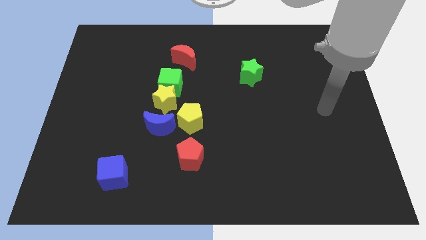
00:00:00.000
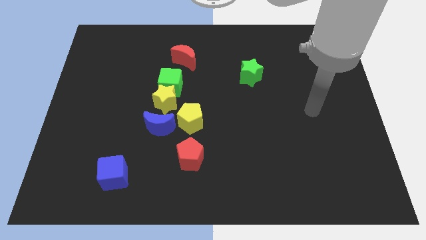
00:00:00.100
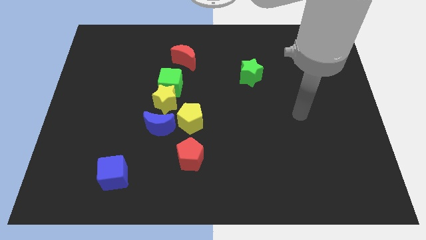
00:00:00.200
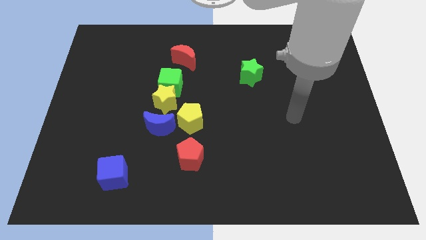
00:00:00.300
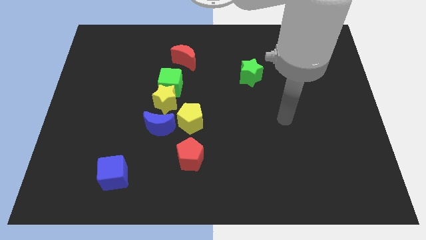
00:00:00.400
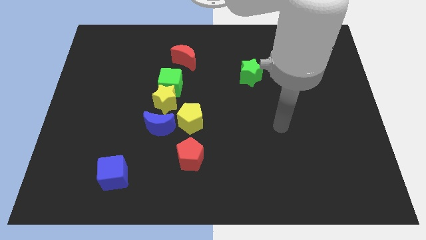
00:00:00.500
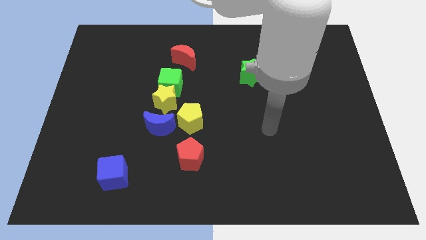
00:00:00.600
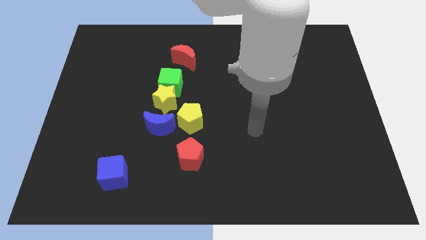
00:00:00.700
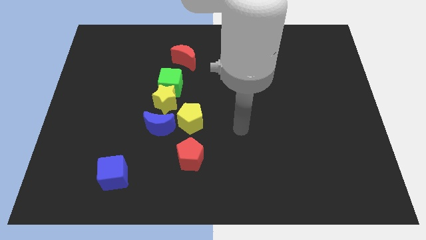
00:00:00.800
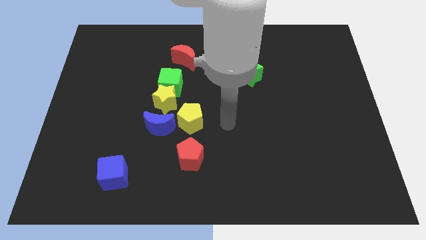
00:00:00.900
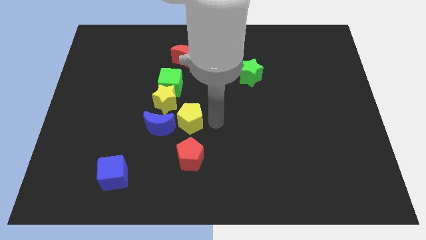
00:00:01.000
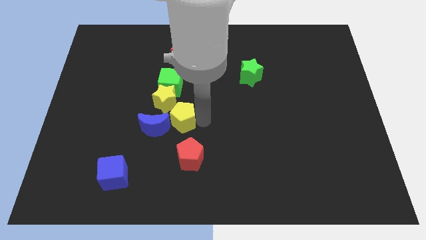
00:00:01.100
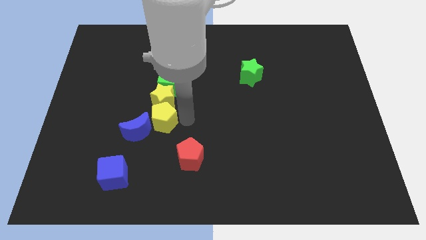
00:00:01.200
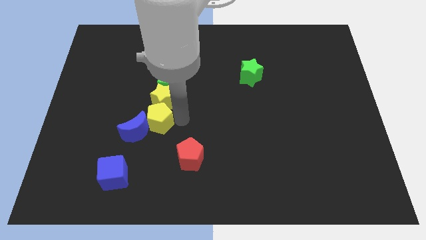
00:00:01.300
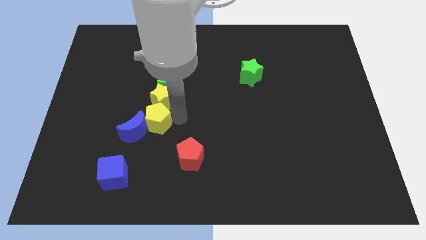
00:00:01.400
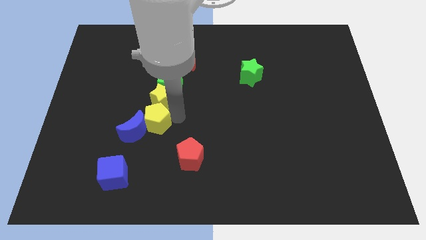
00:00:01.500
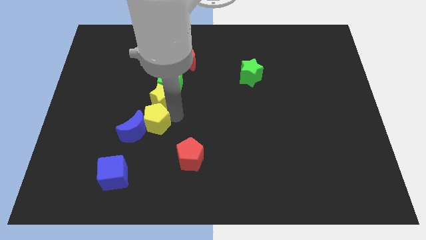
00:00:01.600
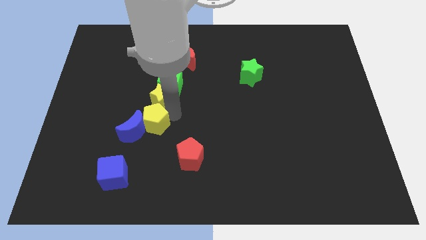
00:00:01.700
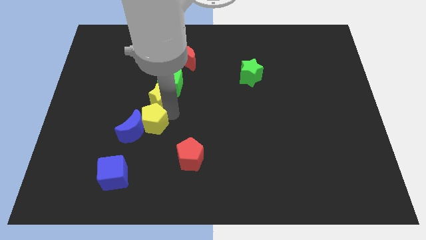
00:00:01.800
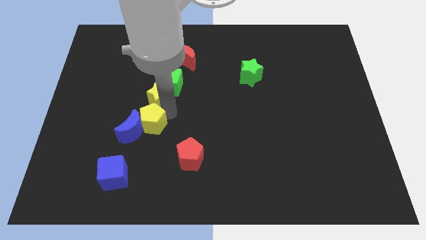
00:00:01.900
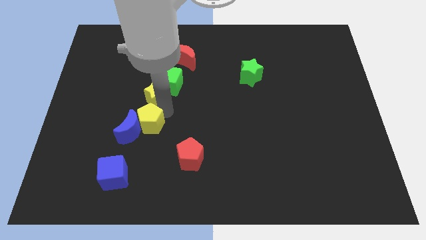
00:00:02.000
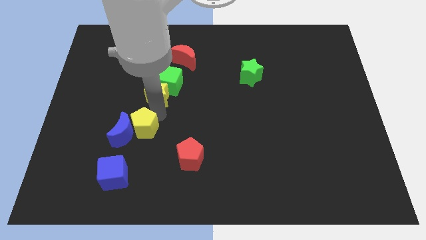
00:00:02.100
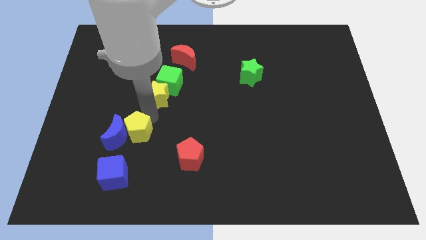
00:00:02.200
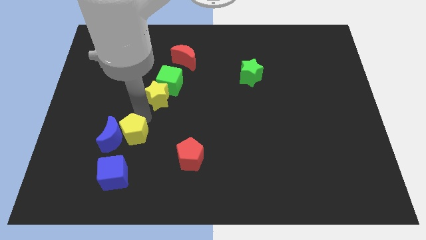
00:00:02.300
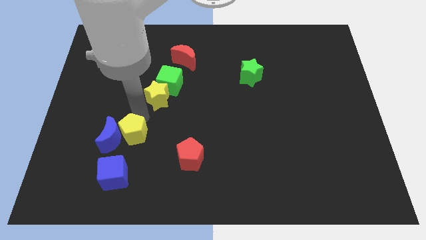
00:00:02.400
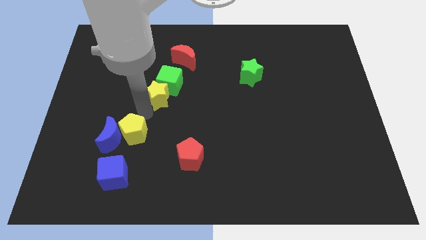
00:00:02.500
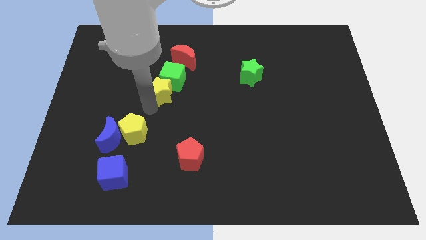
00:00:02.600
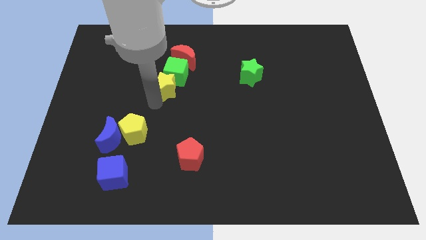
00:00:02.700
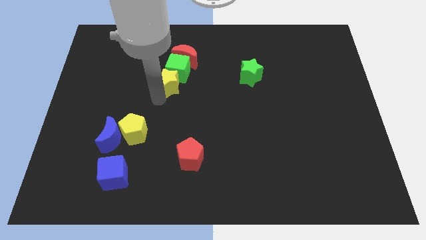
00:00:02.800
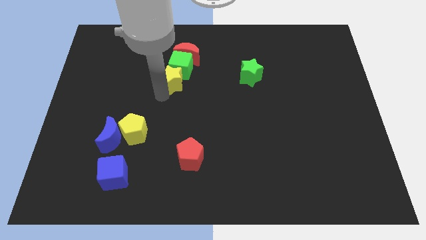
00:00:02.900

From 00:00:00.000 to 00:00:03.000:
pull the yellow star apart from the green cube, blue moon, and yellow pentagon

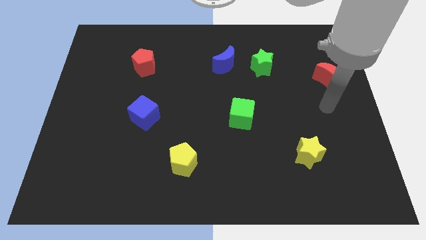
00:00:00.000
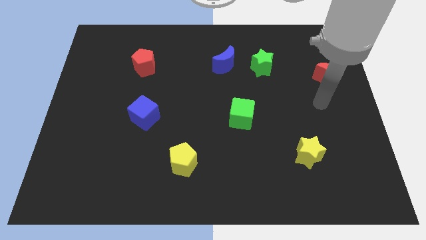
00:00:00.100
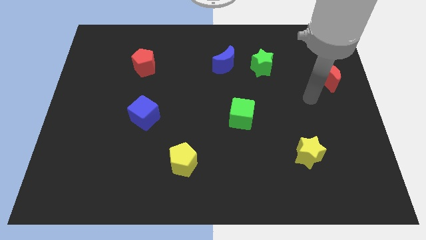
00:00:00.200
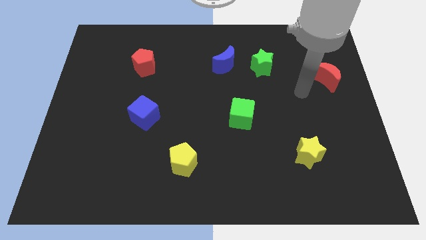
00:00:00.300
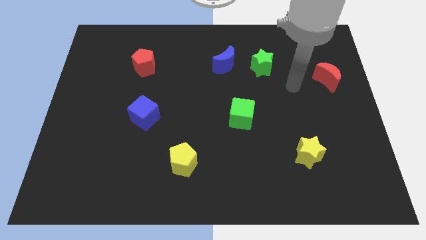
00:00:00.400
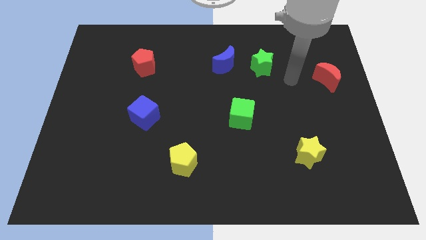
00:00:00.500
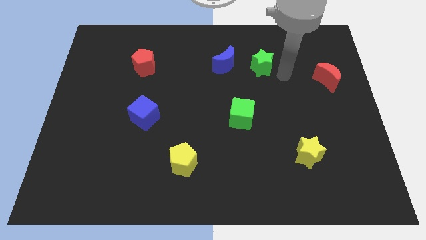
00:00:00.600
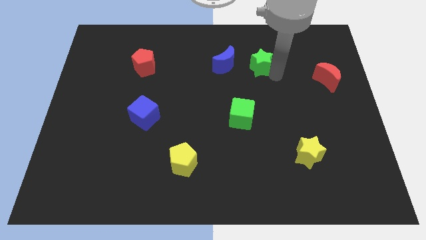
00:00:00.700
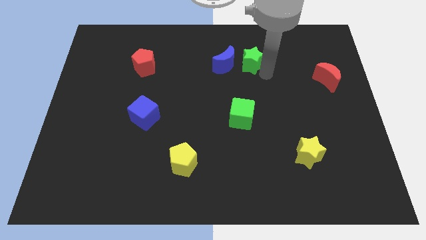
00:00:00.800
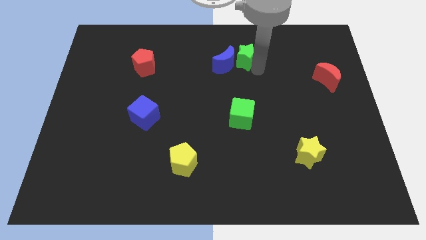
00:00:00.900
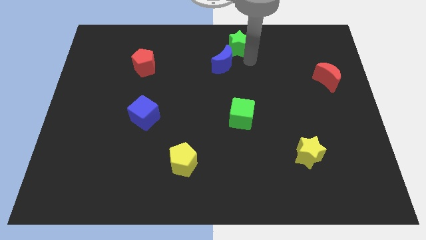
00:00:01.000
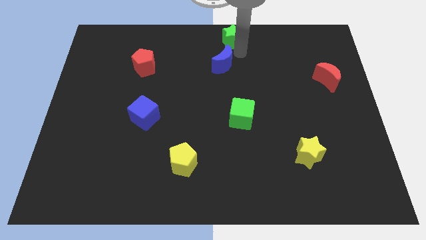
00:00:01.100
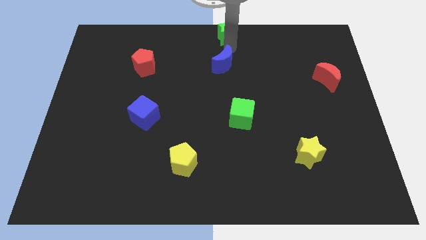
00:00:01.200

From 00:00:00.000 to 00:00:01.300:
separate the blue moon from the green star

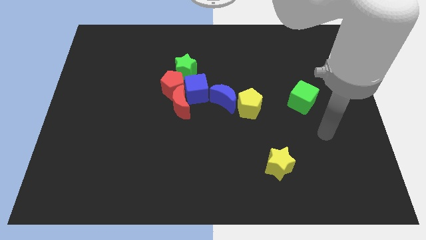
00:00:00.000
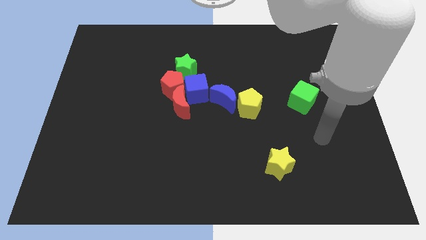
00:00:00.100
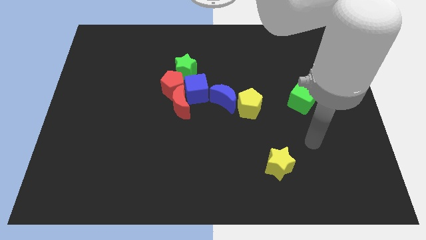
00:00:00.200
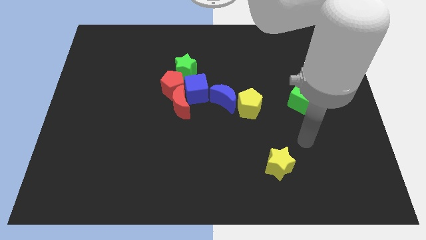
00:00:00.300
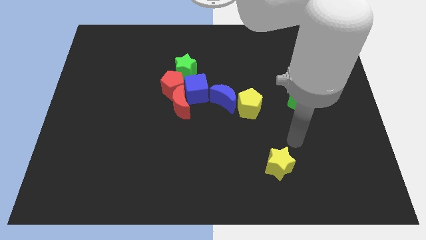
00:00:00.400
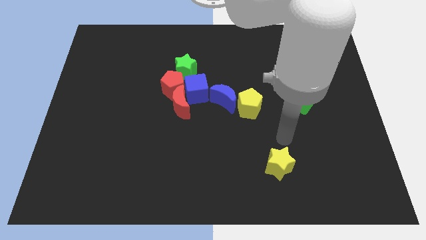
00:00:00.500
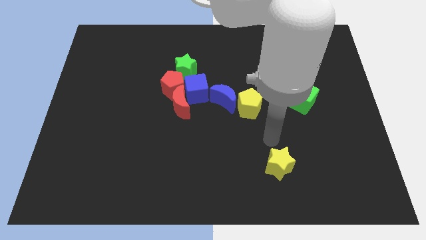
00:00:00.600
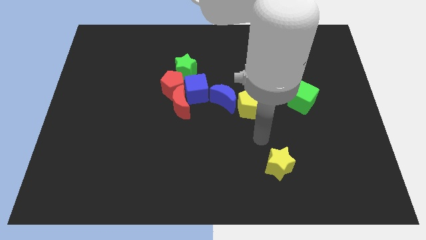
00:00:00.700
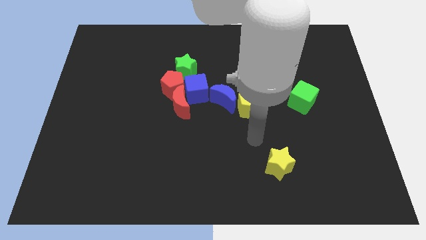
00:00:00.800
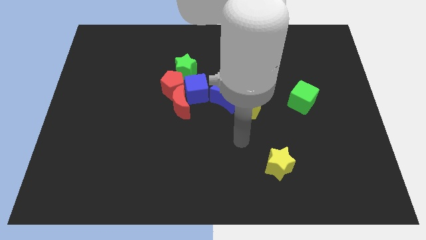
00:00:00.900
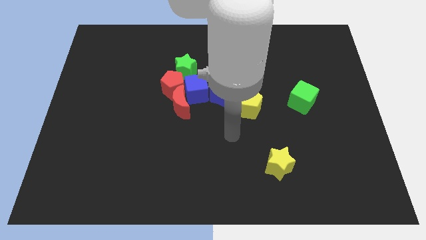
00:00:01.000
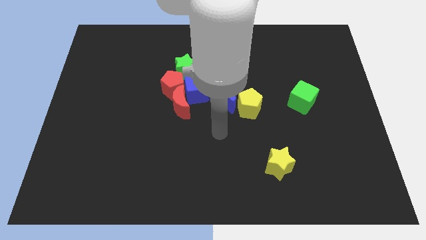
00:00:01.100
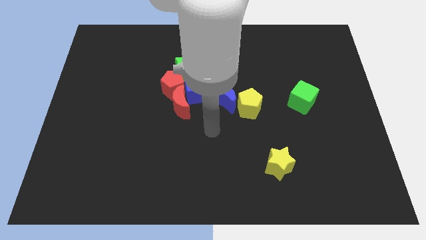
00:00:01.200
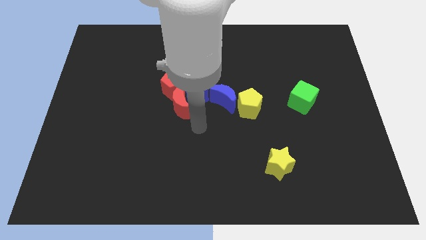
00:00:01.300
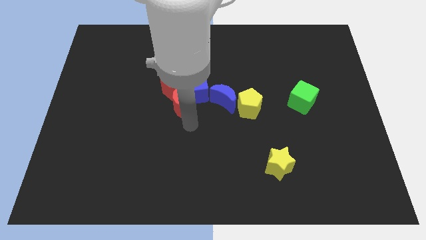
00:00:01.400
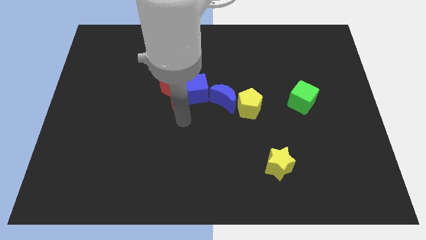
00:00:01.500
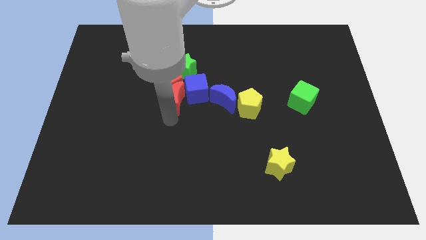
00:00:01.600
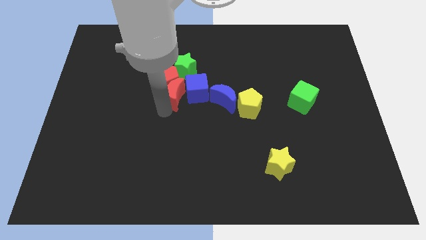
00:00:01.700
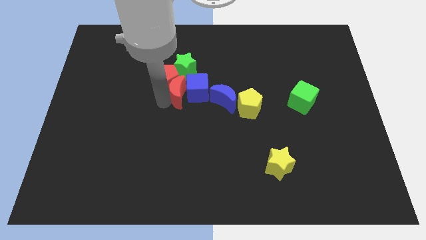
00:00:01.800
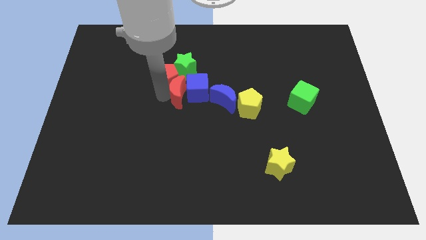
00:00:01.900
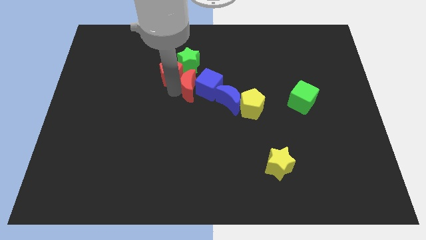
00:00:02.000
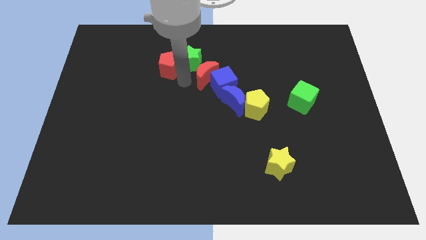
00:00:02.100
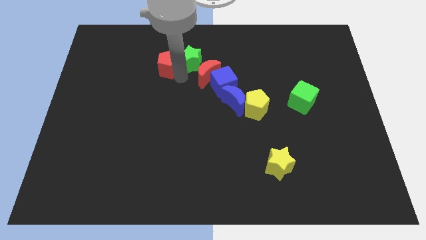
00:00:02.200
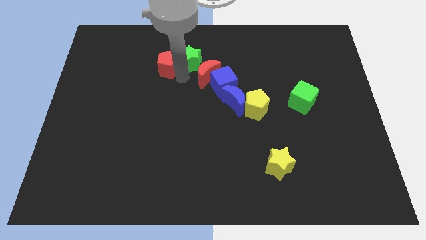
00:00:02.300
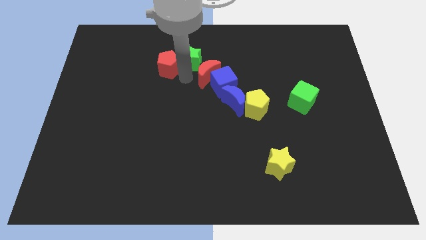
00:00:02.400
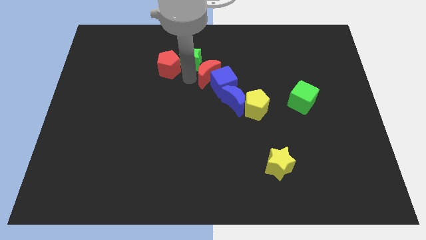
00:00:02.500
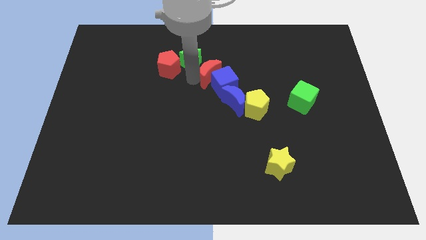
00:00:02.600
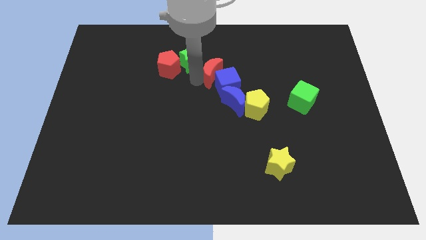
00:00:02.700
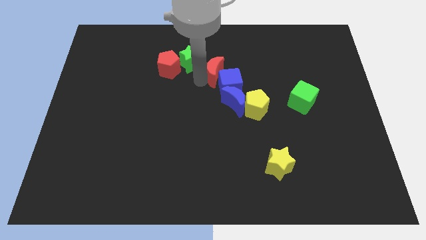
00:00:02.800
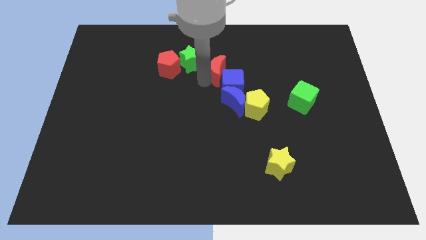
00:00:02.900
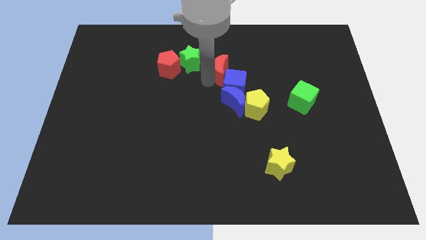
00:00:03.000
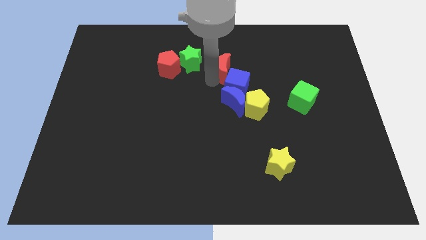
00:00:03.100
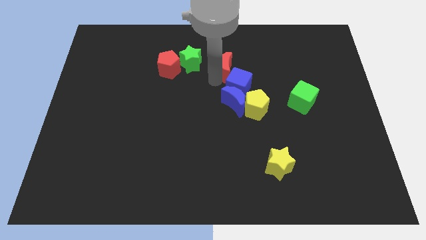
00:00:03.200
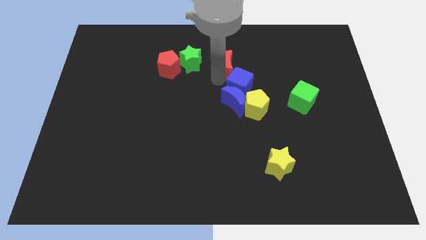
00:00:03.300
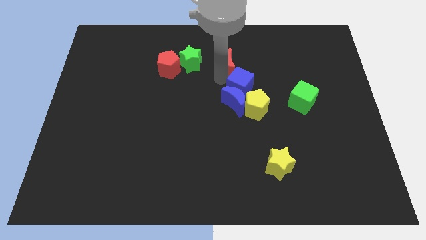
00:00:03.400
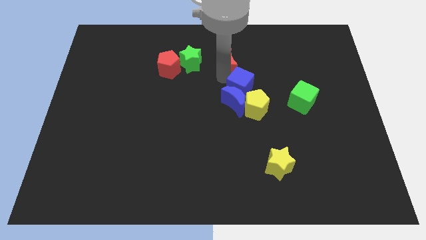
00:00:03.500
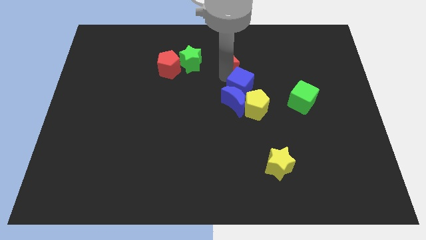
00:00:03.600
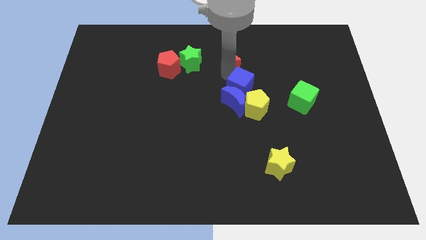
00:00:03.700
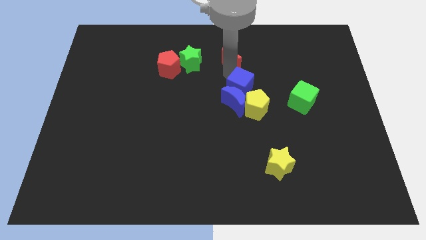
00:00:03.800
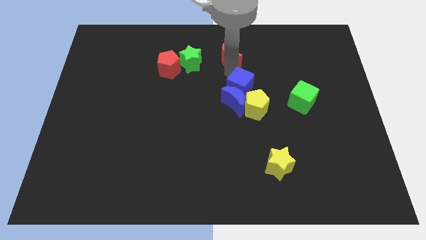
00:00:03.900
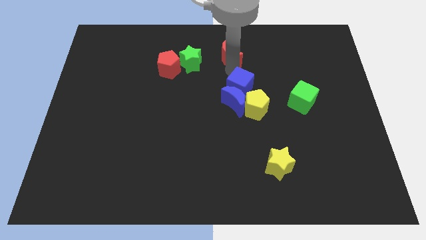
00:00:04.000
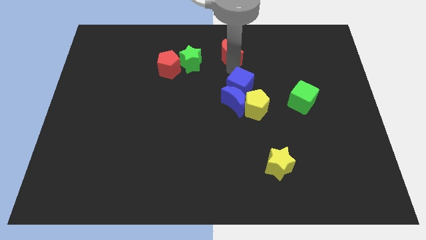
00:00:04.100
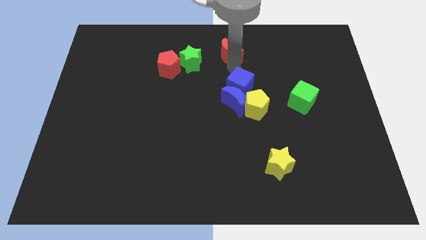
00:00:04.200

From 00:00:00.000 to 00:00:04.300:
move the red moon away from the blue cube and red pentagon

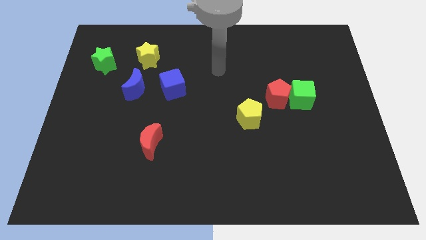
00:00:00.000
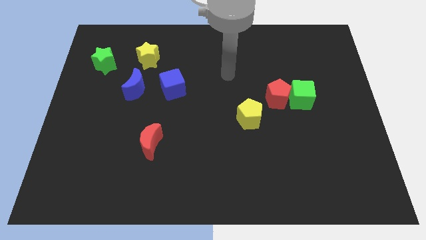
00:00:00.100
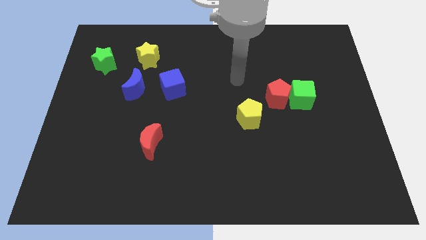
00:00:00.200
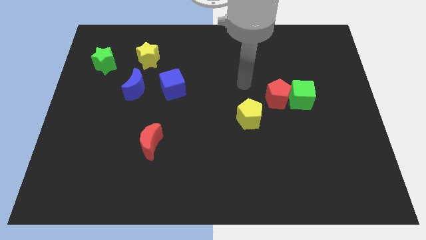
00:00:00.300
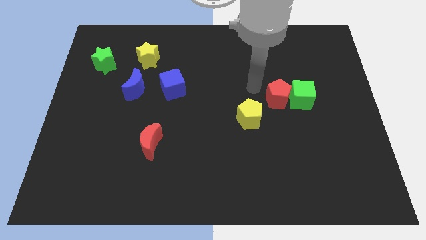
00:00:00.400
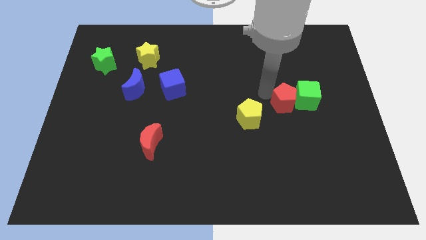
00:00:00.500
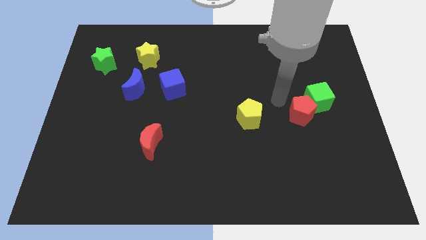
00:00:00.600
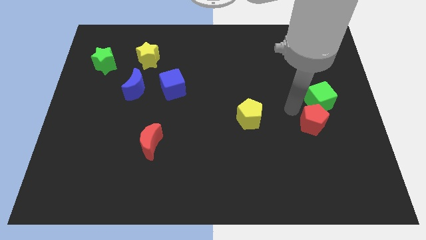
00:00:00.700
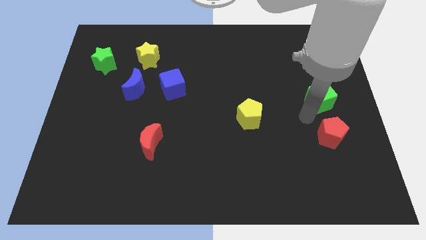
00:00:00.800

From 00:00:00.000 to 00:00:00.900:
separate the green cube from the red pentagon
